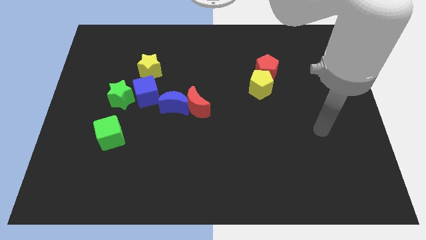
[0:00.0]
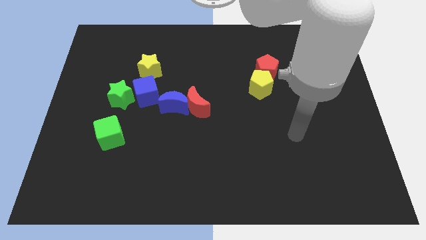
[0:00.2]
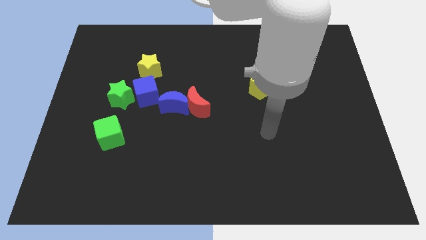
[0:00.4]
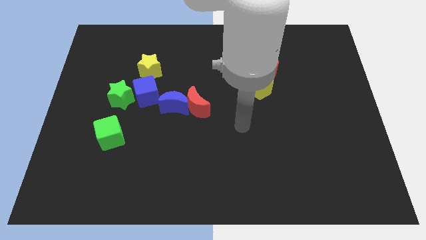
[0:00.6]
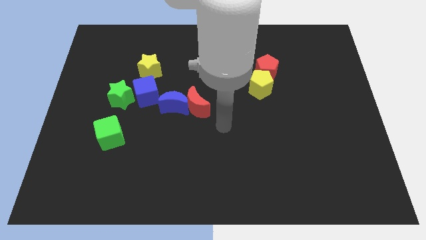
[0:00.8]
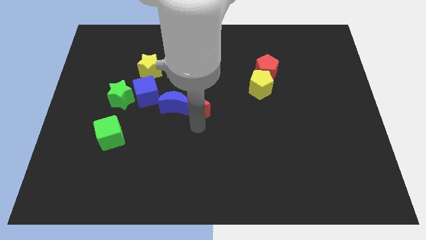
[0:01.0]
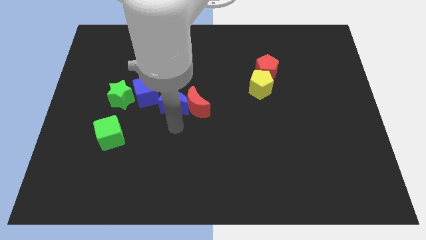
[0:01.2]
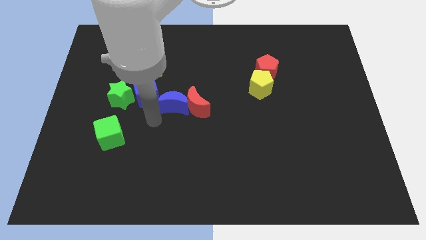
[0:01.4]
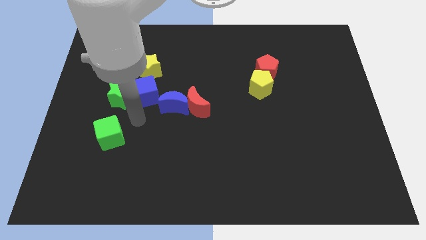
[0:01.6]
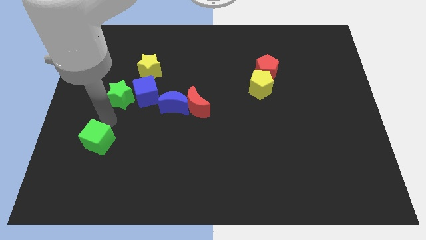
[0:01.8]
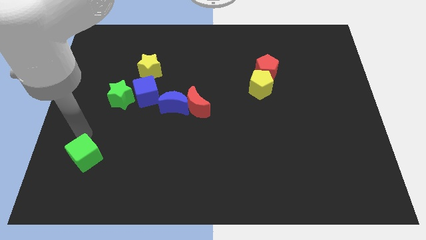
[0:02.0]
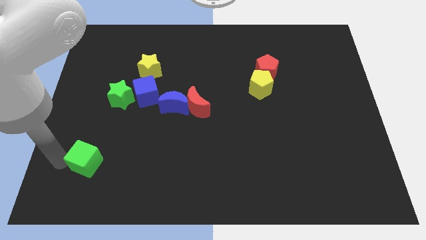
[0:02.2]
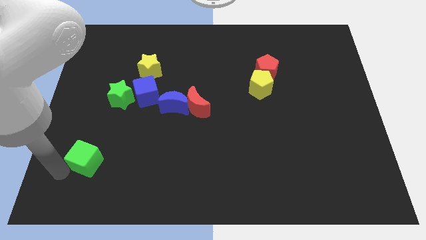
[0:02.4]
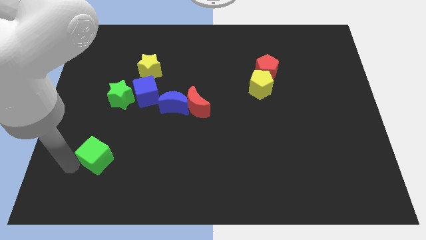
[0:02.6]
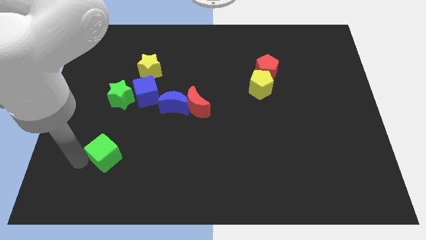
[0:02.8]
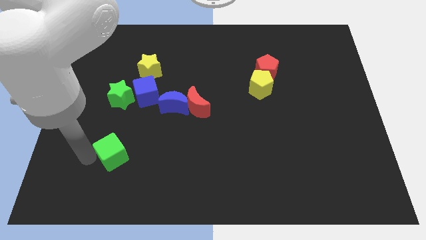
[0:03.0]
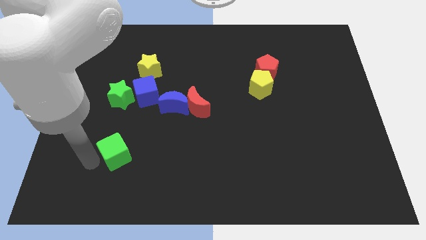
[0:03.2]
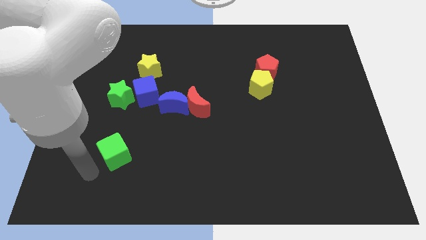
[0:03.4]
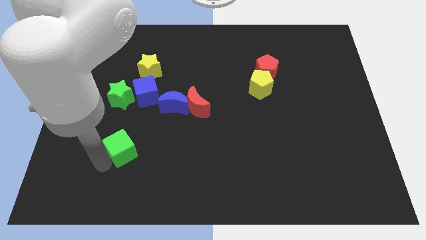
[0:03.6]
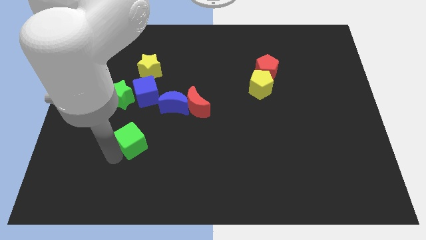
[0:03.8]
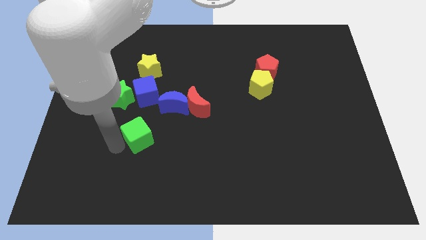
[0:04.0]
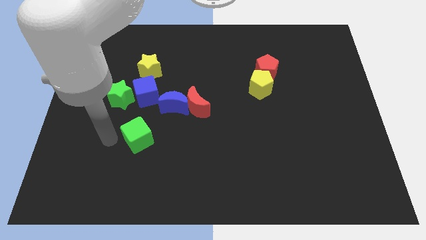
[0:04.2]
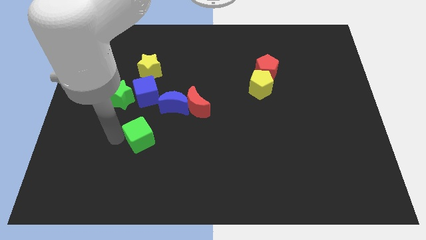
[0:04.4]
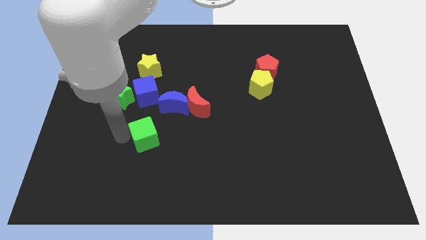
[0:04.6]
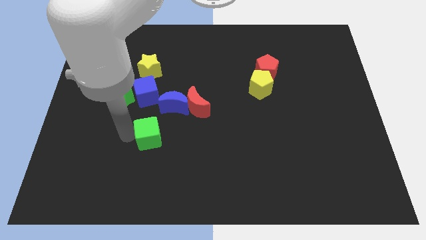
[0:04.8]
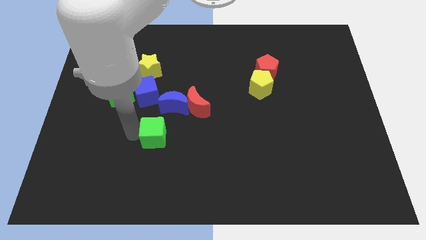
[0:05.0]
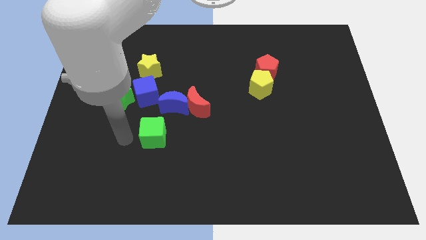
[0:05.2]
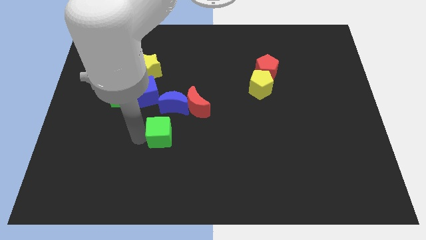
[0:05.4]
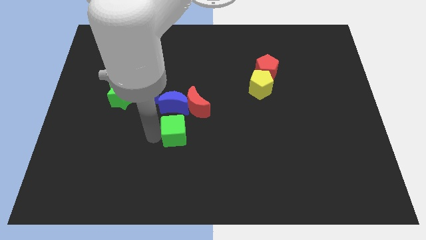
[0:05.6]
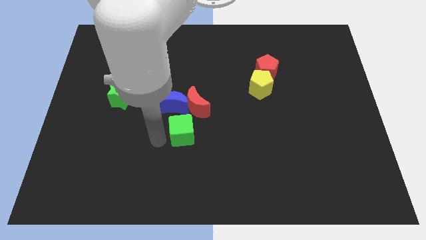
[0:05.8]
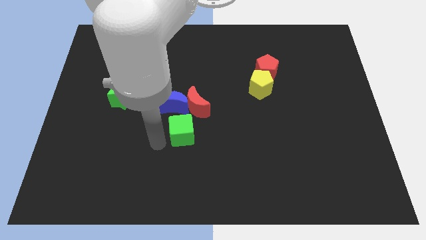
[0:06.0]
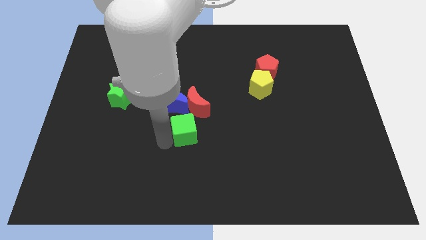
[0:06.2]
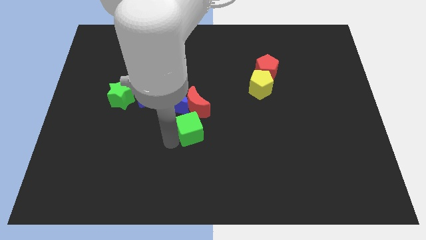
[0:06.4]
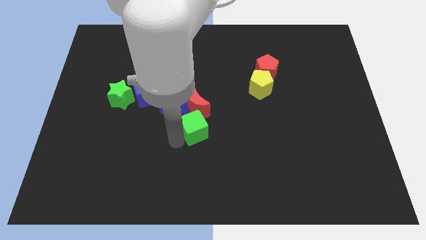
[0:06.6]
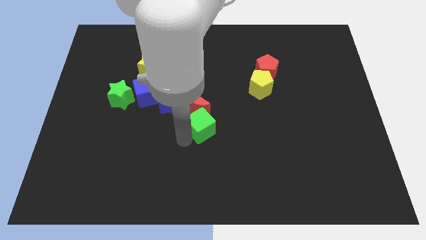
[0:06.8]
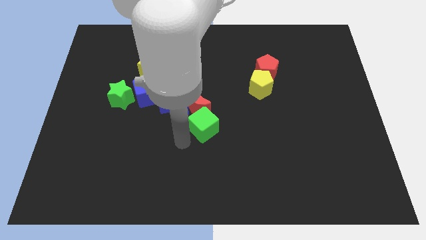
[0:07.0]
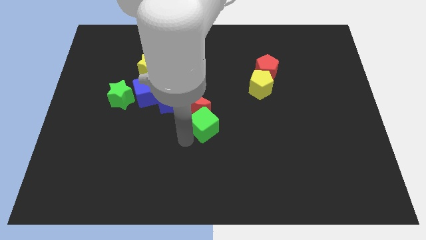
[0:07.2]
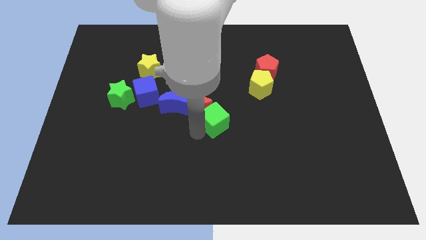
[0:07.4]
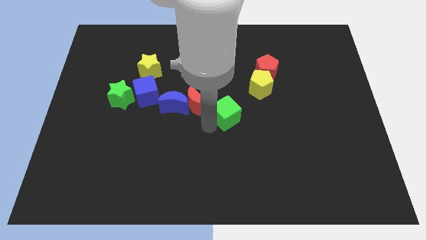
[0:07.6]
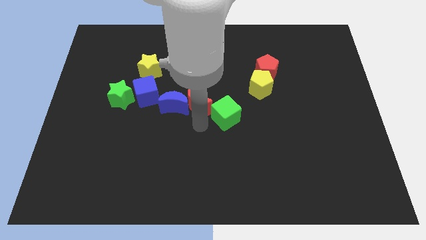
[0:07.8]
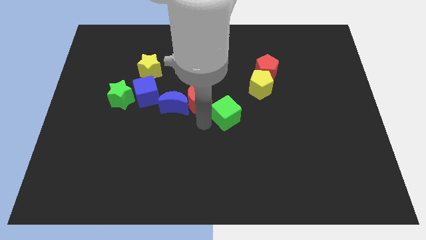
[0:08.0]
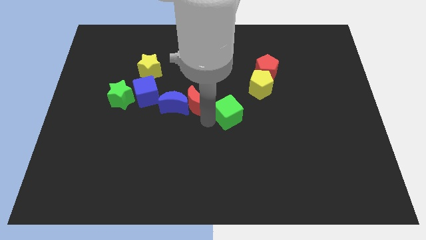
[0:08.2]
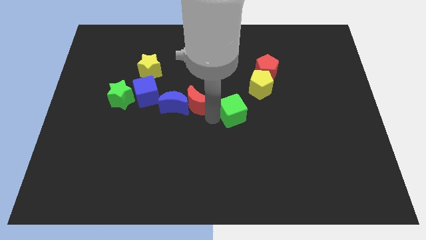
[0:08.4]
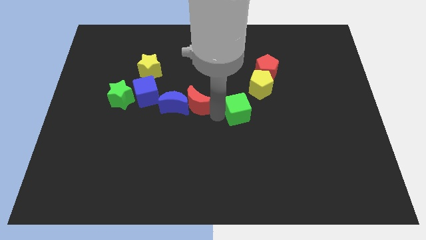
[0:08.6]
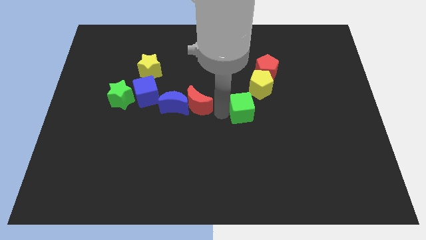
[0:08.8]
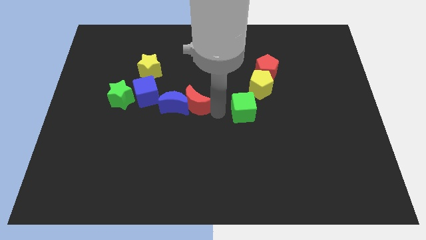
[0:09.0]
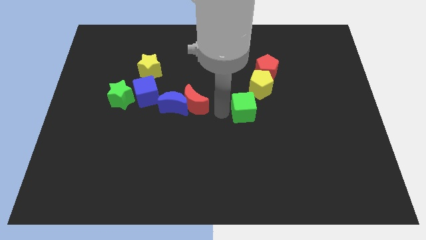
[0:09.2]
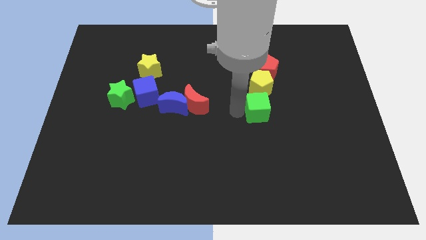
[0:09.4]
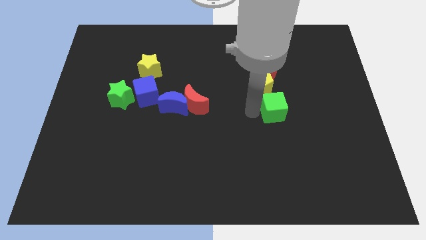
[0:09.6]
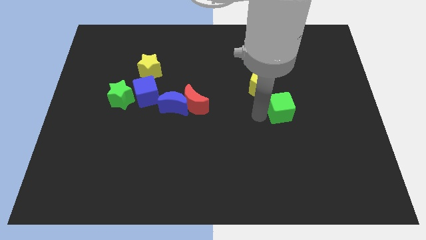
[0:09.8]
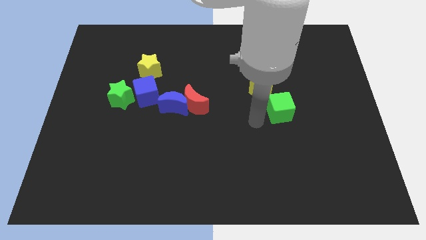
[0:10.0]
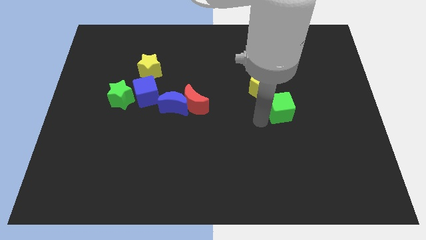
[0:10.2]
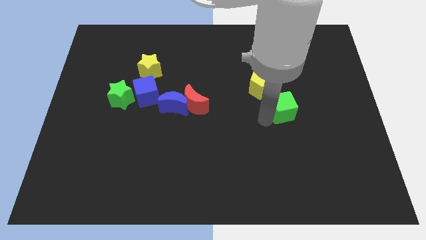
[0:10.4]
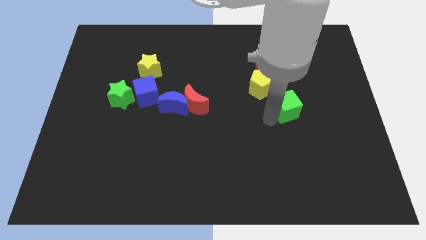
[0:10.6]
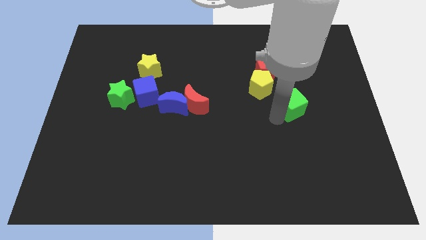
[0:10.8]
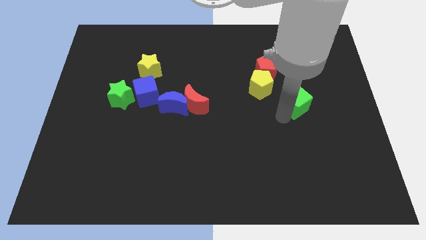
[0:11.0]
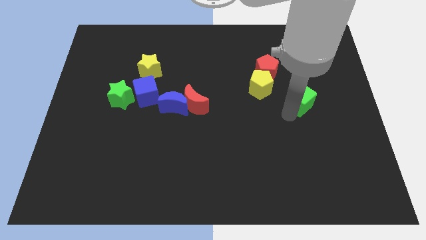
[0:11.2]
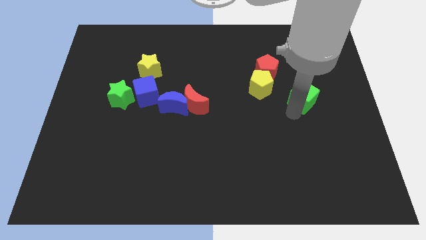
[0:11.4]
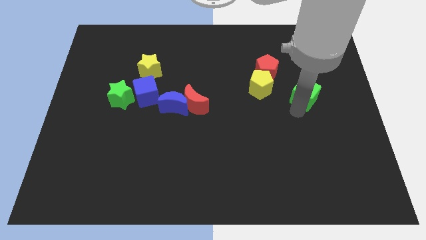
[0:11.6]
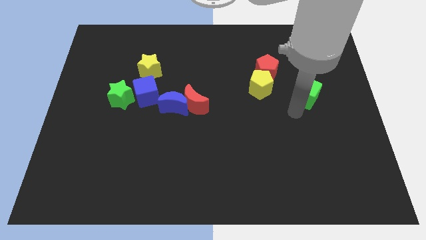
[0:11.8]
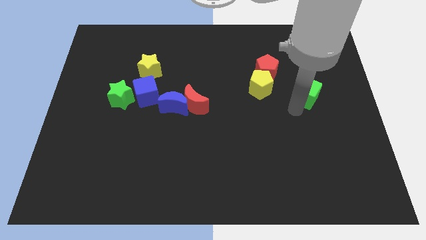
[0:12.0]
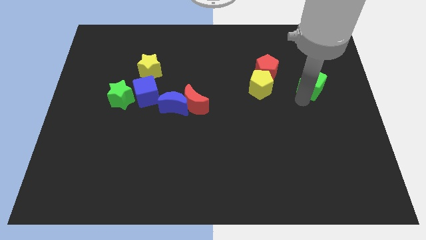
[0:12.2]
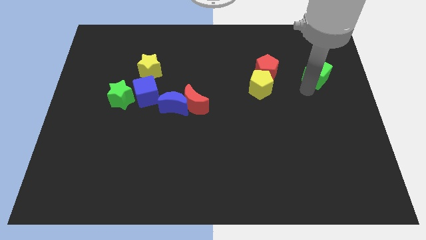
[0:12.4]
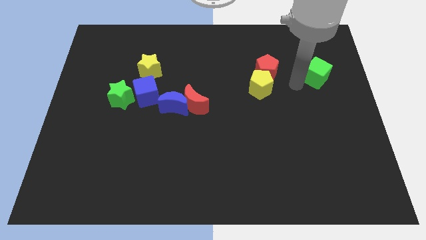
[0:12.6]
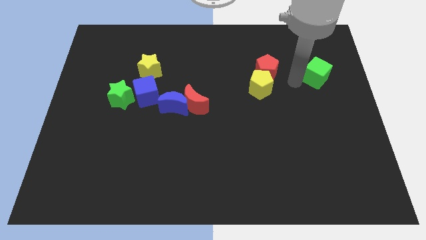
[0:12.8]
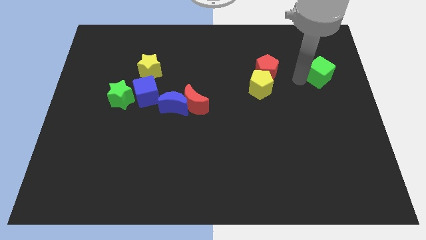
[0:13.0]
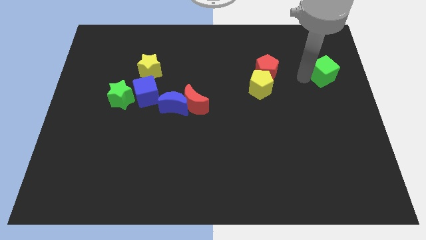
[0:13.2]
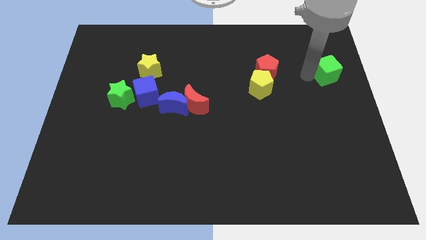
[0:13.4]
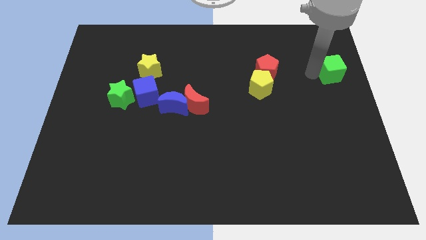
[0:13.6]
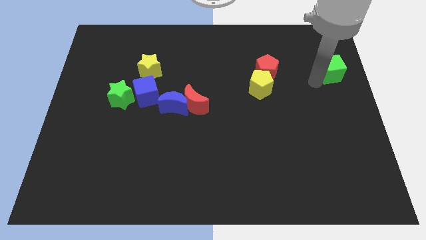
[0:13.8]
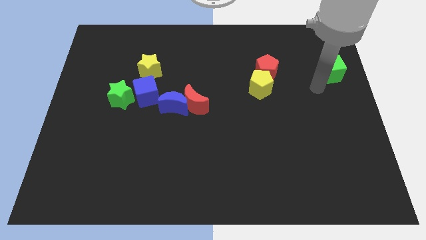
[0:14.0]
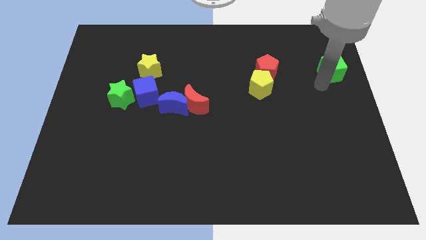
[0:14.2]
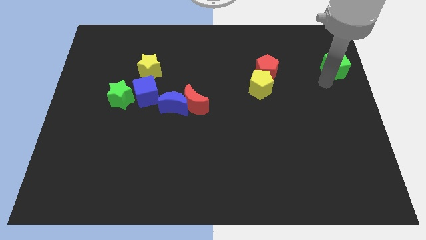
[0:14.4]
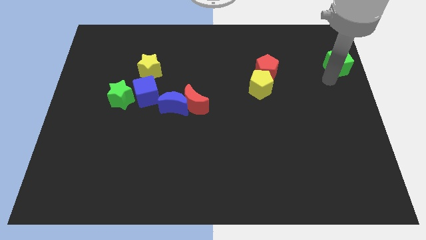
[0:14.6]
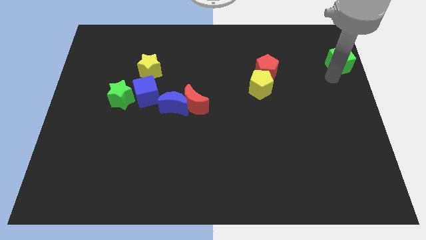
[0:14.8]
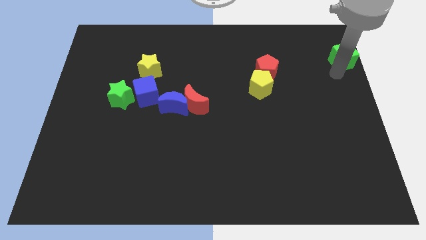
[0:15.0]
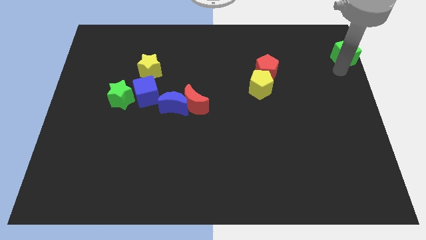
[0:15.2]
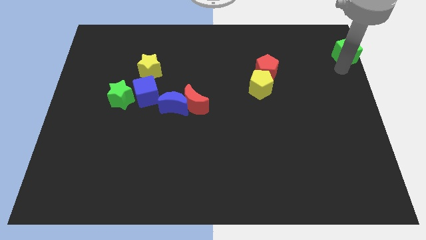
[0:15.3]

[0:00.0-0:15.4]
put the green cube to the upper right corner
